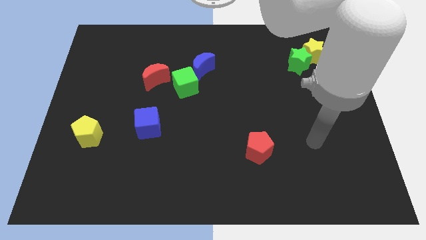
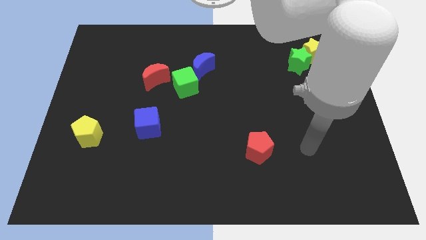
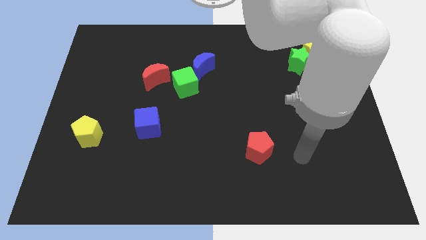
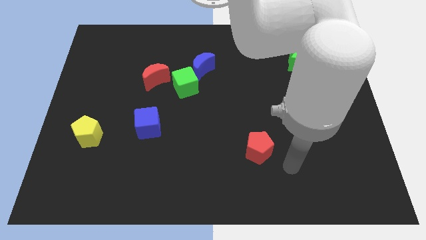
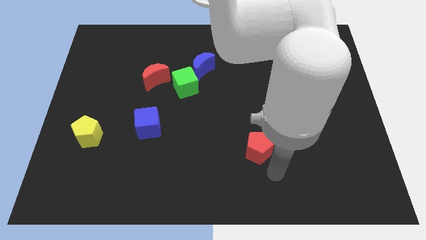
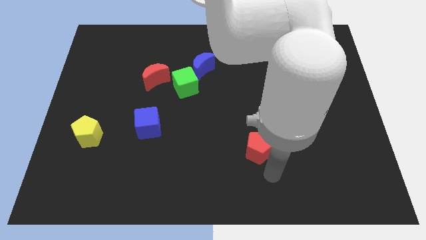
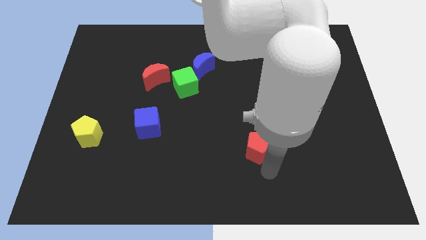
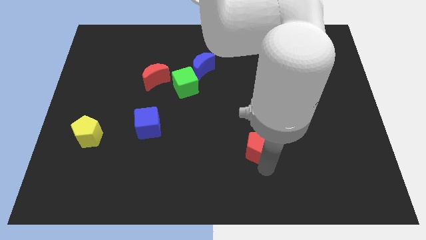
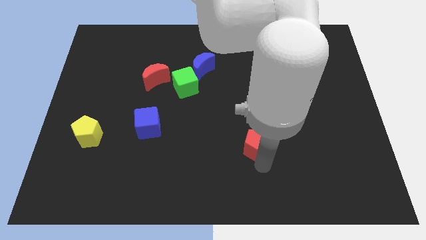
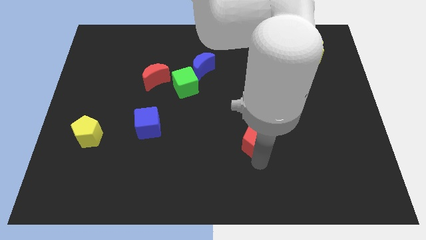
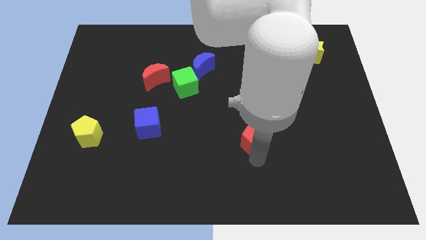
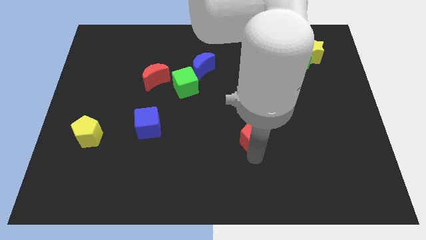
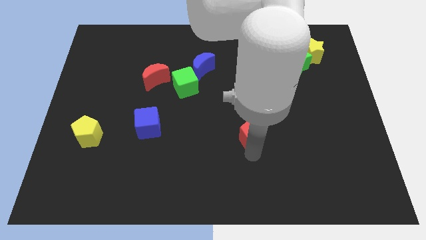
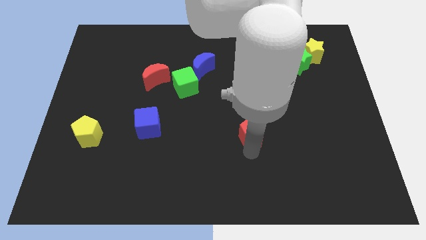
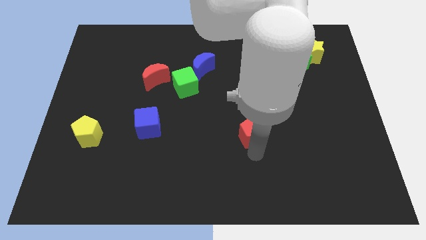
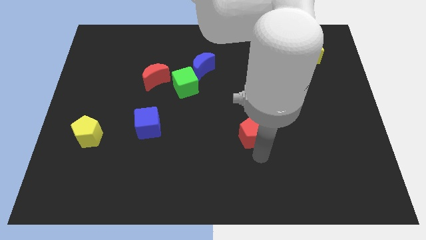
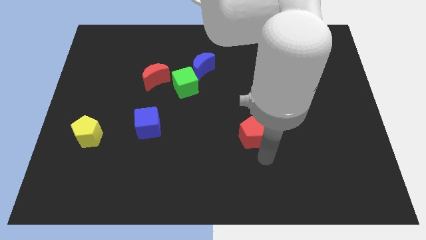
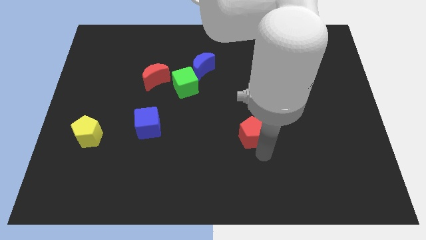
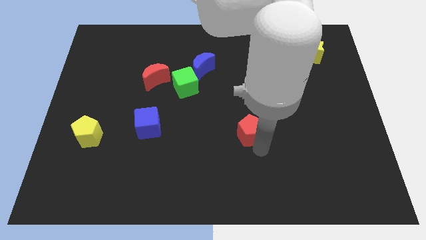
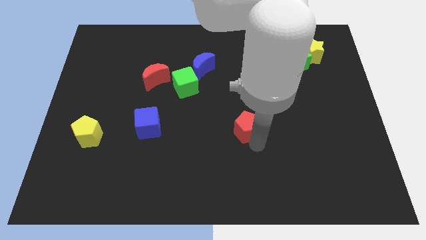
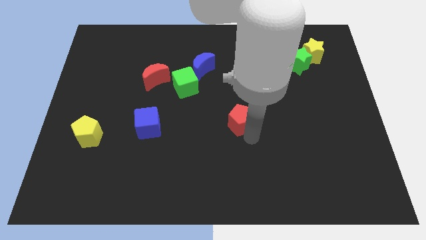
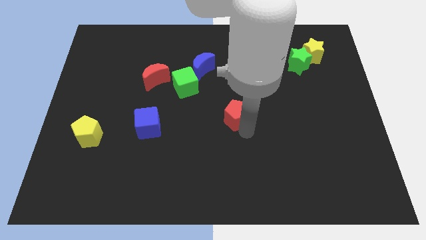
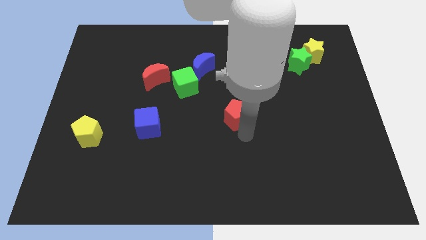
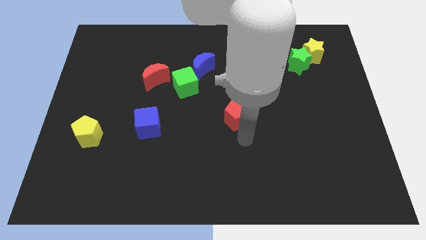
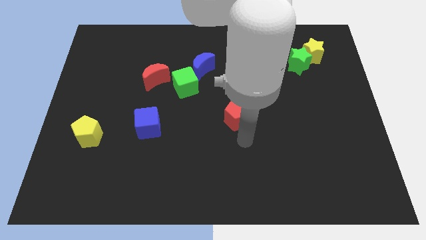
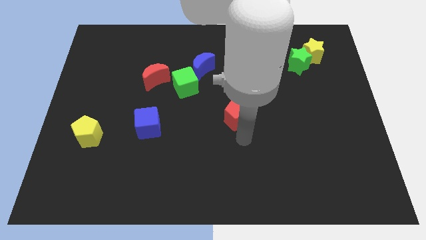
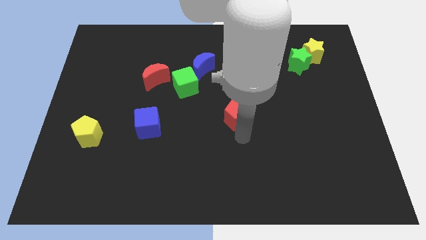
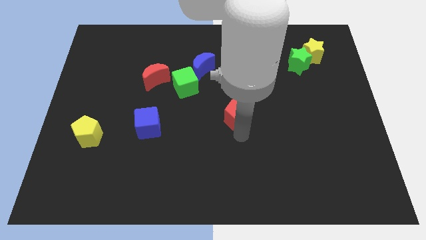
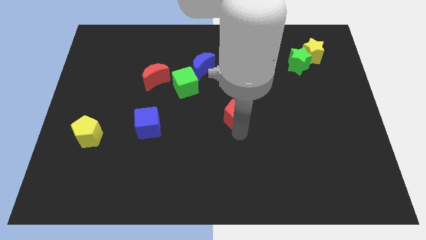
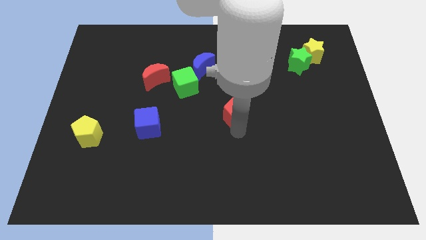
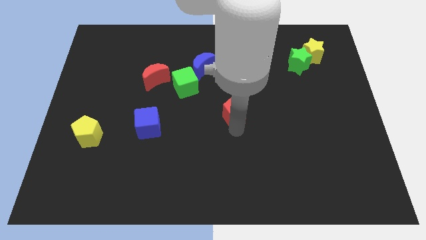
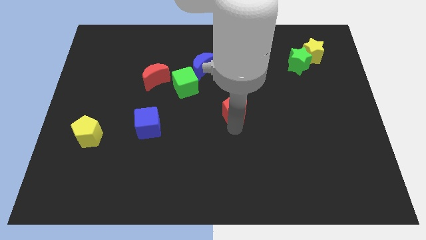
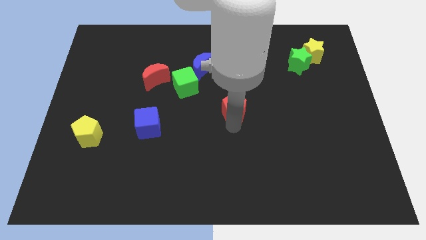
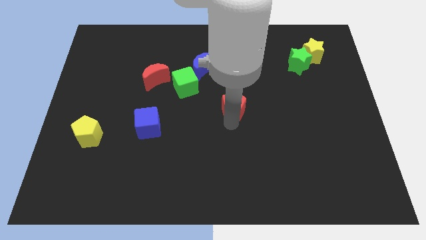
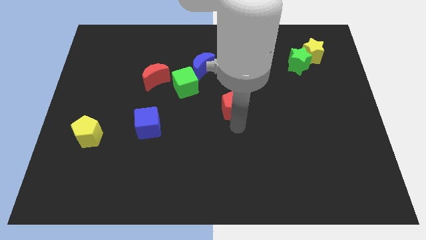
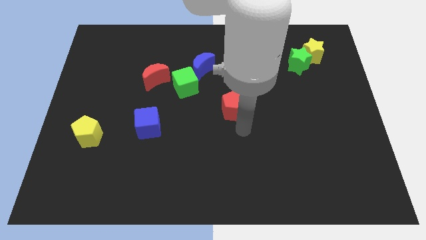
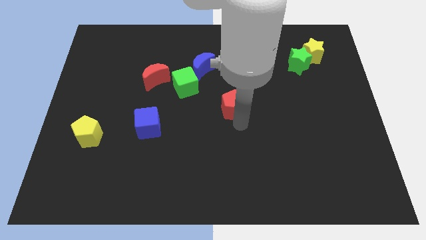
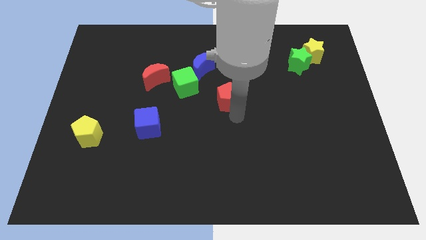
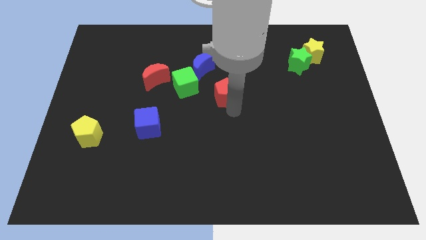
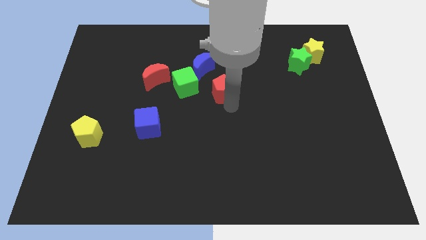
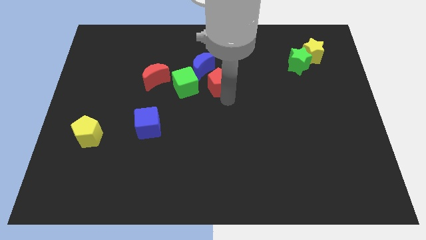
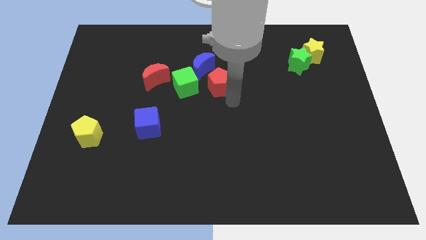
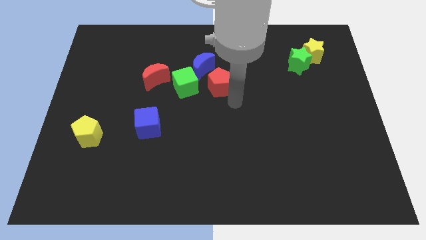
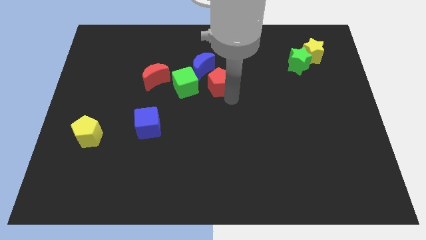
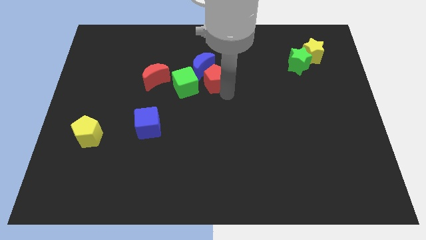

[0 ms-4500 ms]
slide the red pentagon towards the blue moon

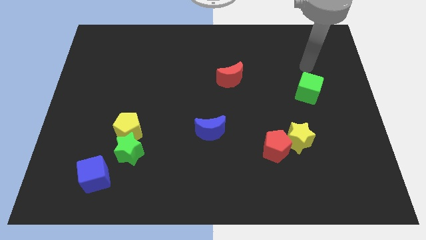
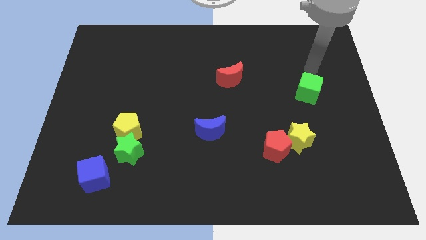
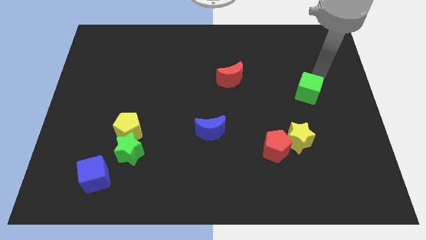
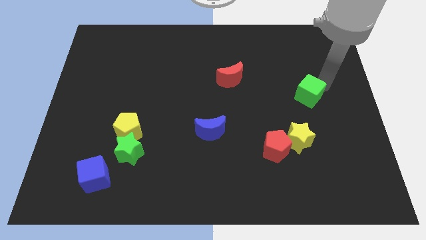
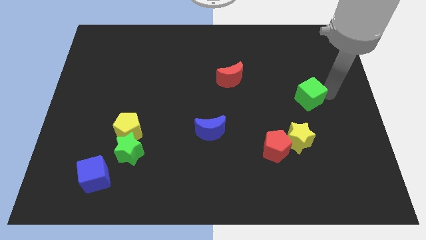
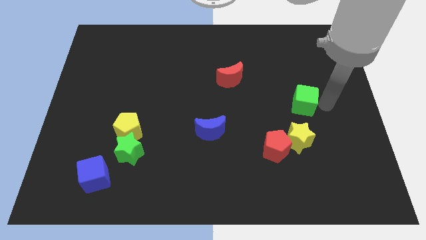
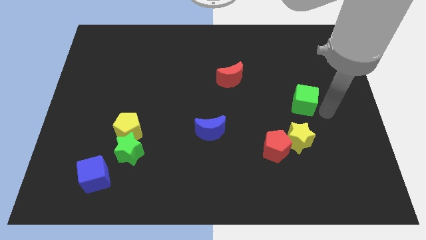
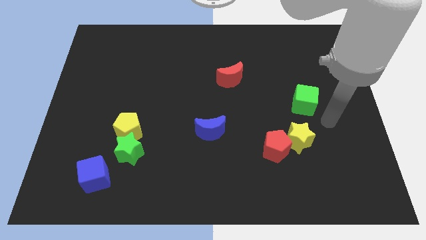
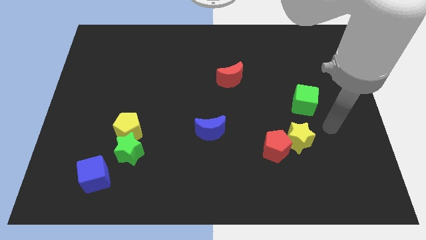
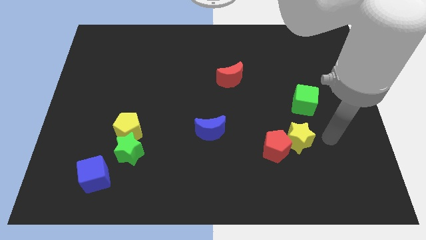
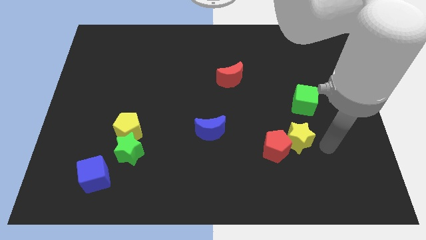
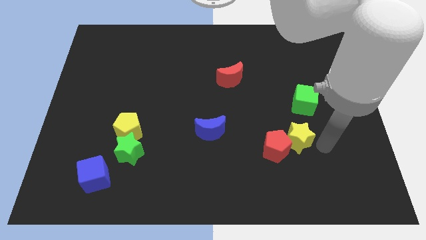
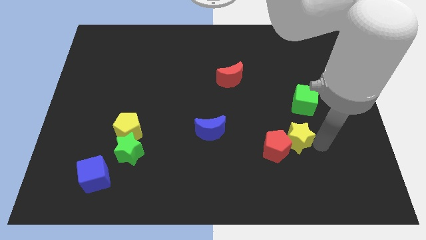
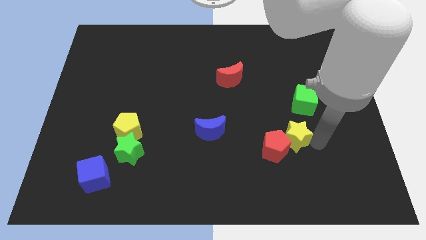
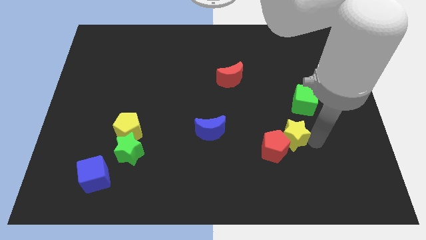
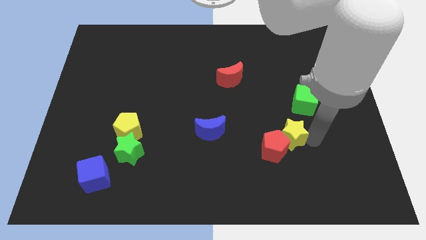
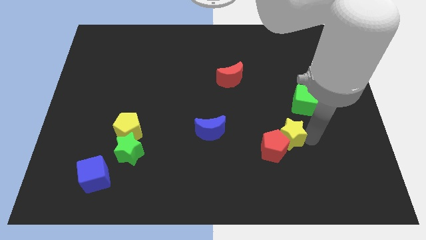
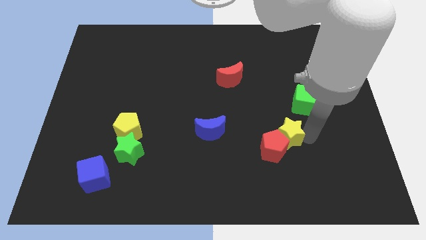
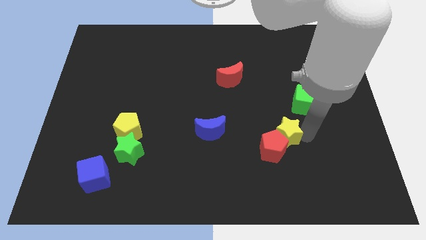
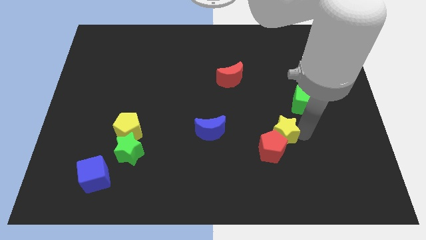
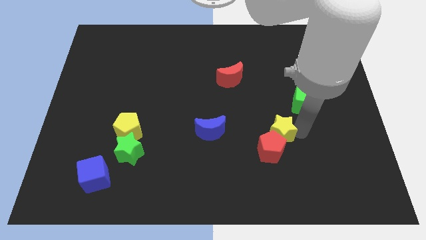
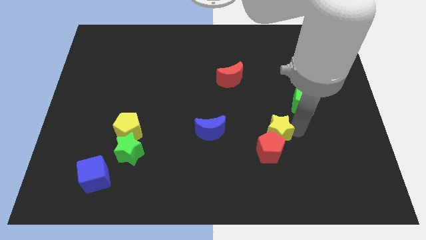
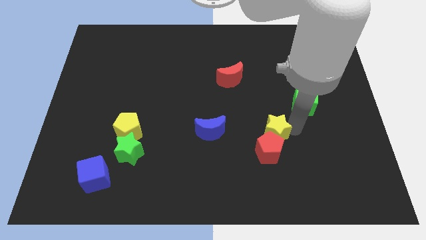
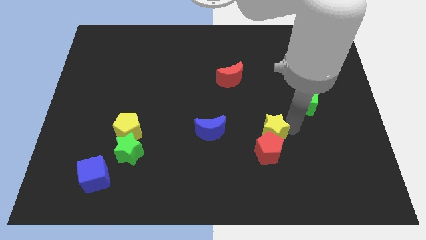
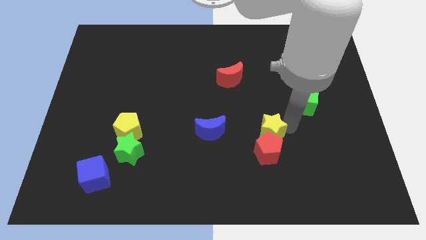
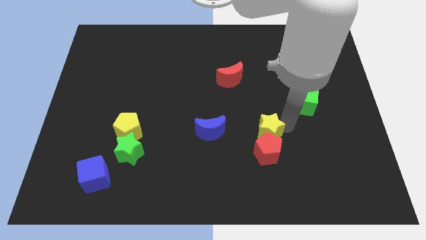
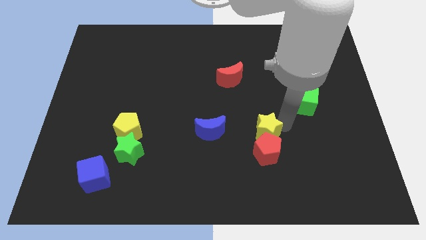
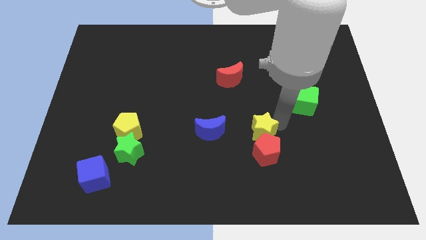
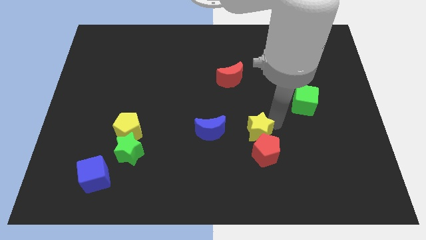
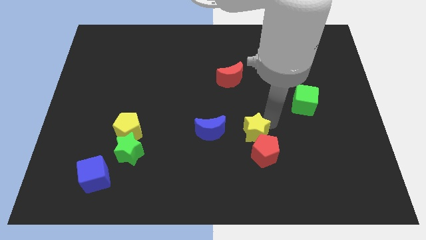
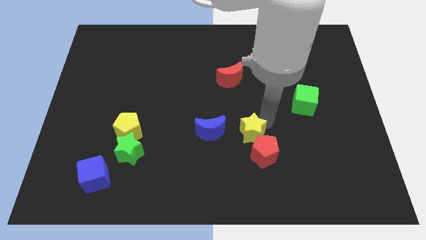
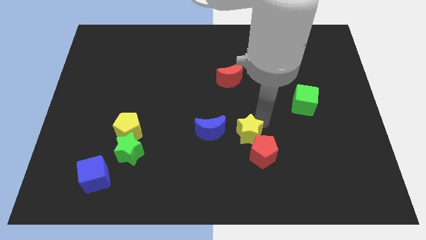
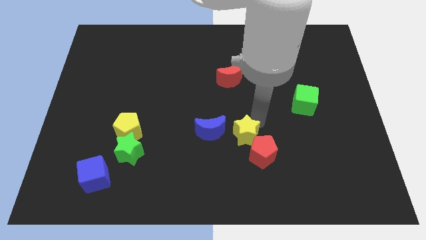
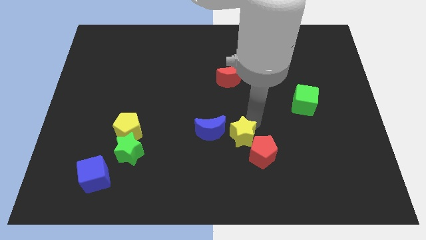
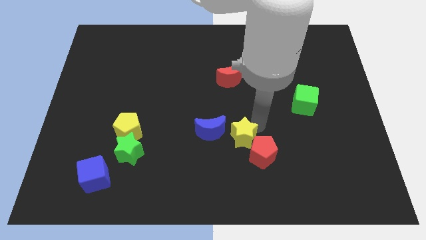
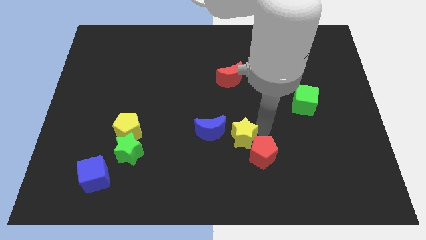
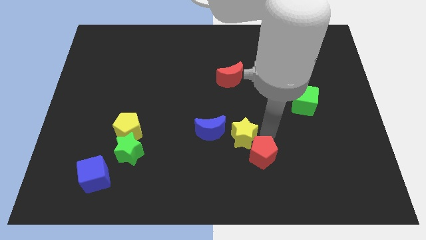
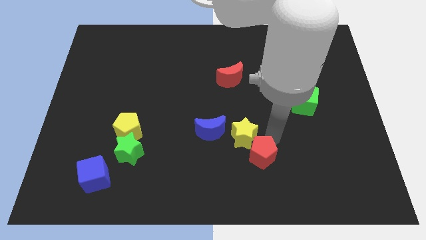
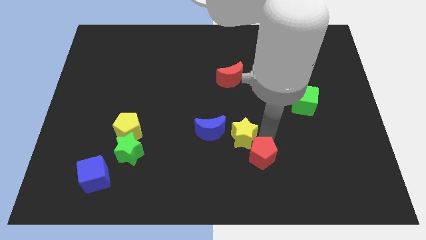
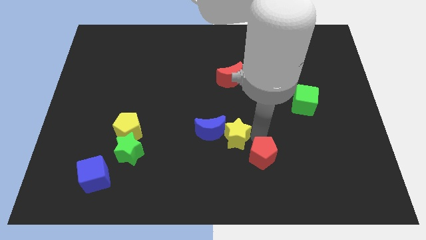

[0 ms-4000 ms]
put the yellow star to the blue moon
